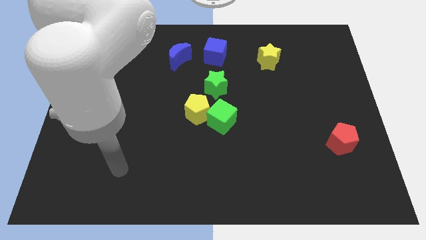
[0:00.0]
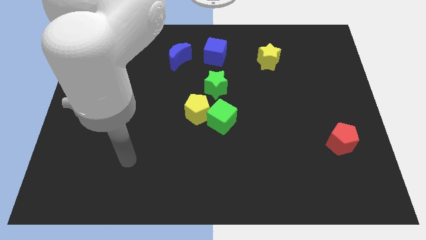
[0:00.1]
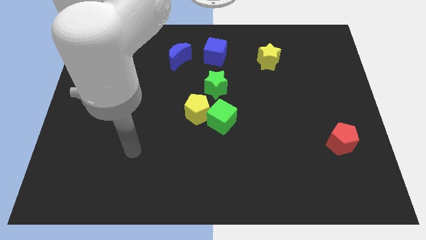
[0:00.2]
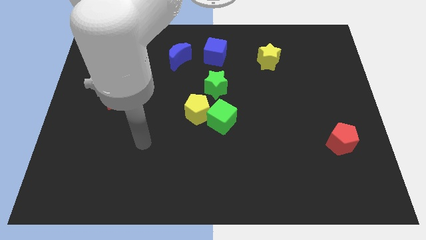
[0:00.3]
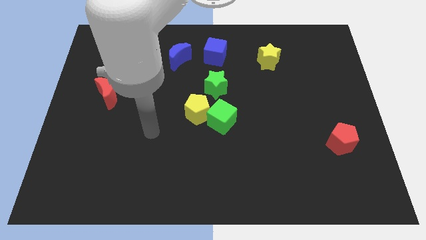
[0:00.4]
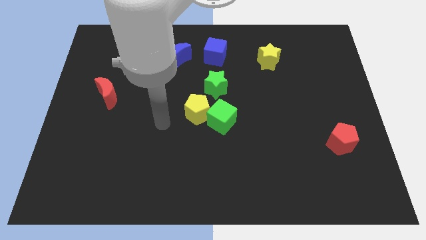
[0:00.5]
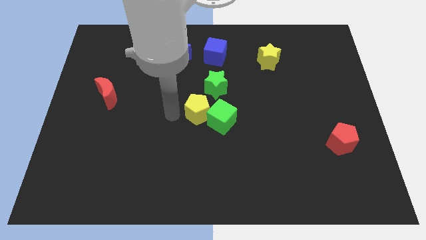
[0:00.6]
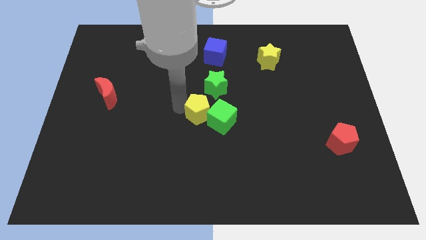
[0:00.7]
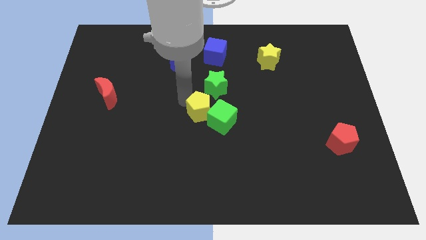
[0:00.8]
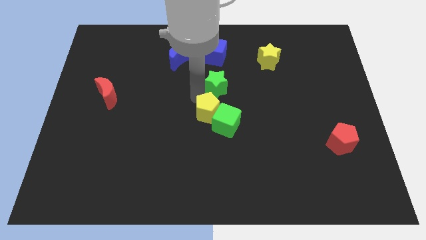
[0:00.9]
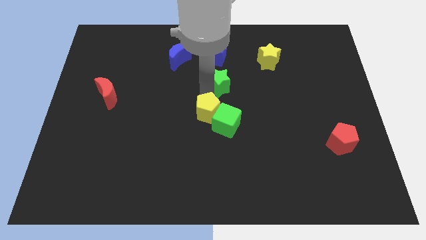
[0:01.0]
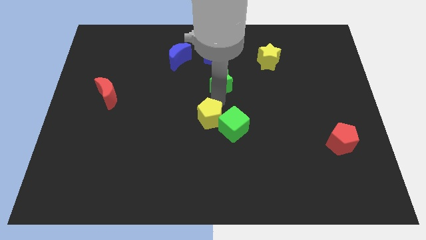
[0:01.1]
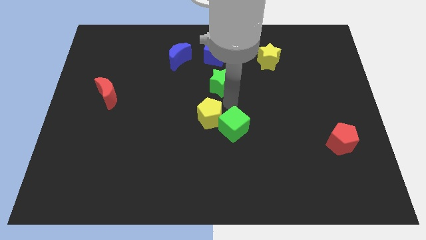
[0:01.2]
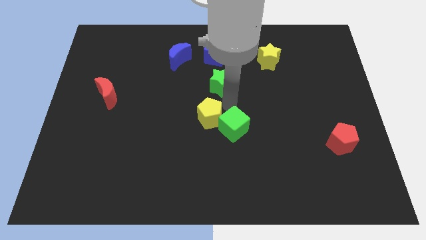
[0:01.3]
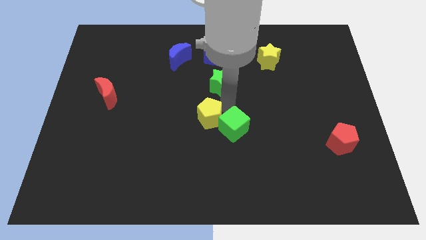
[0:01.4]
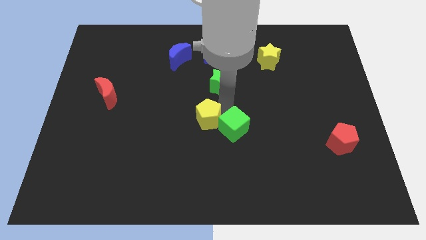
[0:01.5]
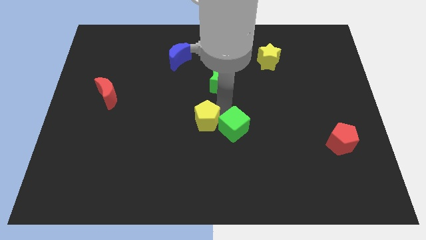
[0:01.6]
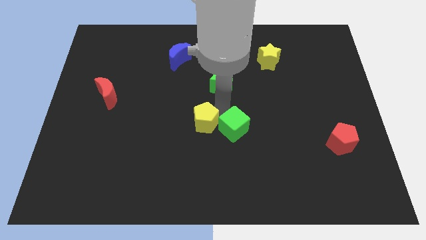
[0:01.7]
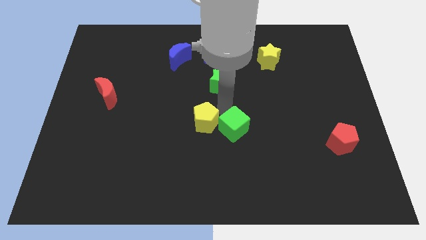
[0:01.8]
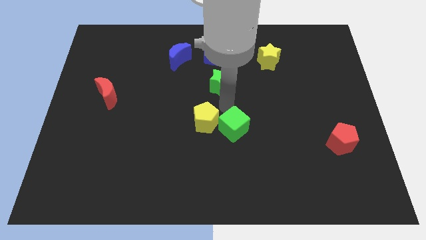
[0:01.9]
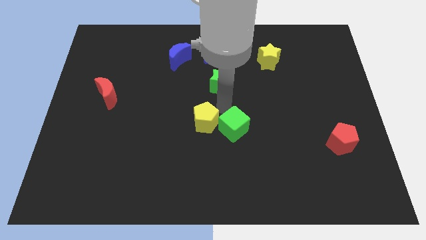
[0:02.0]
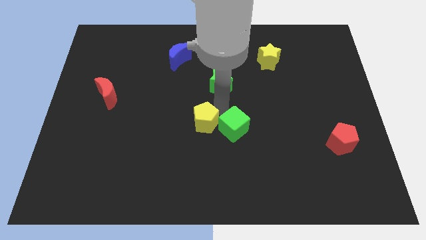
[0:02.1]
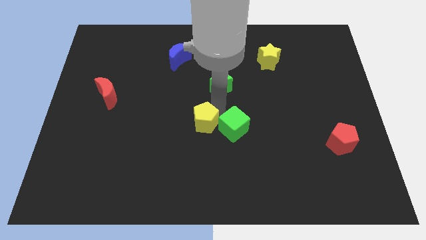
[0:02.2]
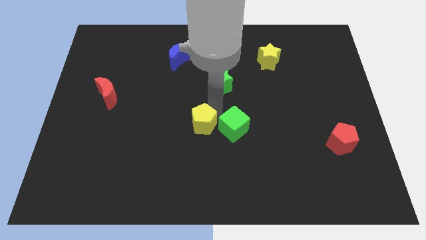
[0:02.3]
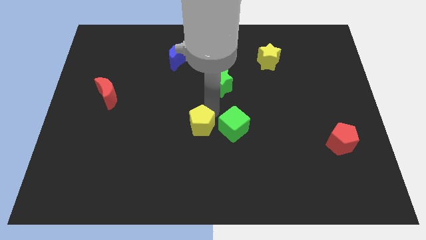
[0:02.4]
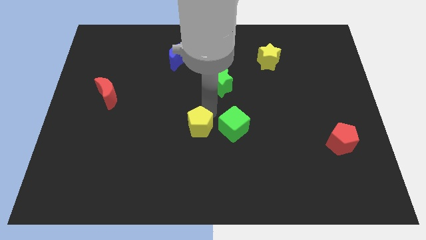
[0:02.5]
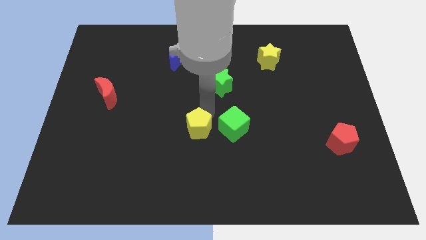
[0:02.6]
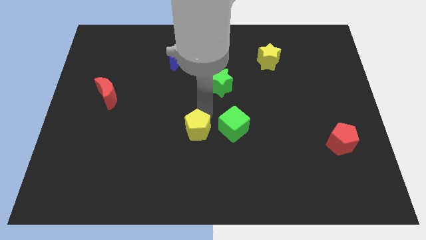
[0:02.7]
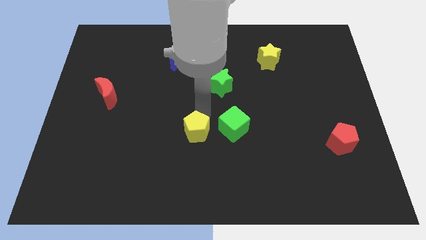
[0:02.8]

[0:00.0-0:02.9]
pull the yellow pentagon apart from the green cube and green star

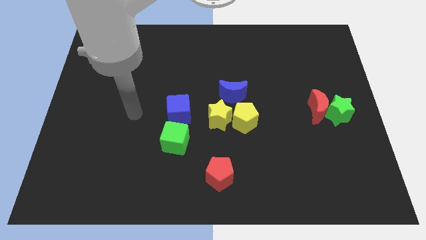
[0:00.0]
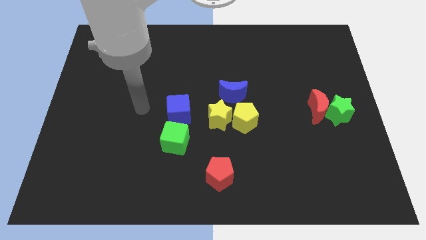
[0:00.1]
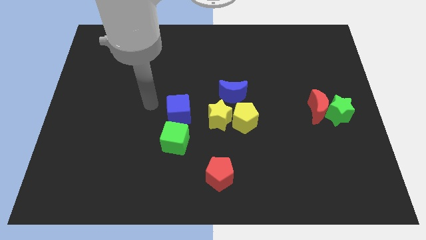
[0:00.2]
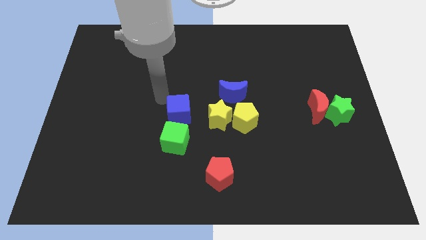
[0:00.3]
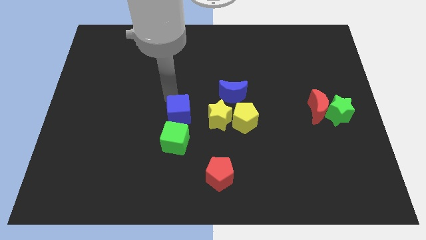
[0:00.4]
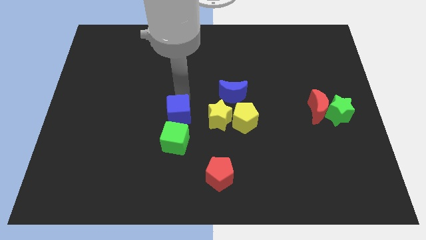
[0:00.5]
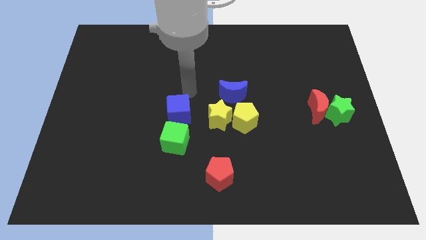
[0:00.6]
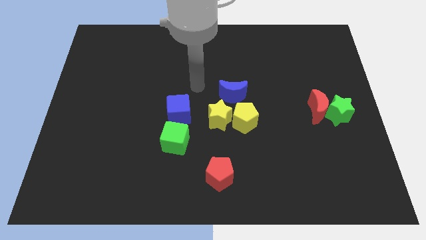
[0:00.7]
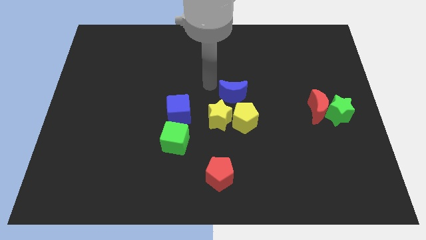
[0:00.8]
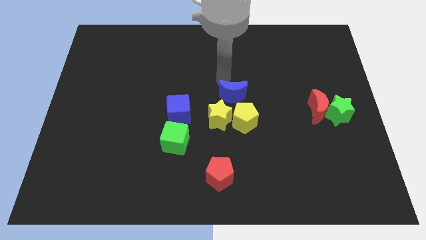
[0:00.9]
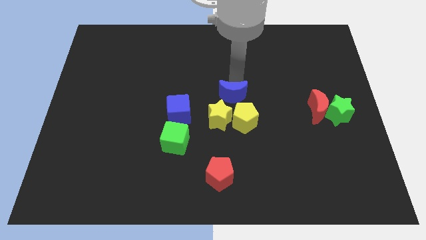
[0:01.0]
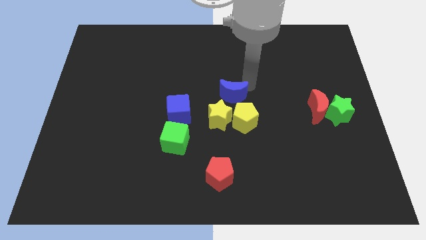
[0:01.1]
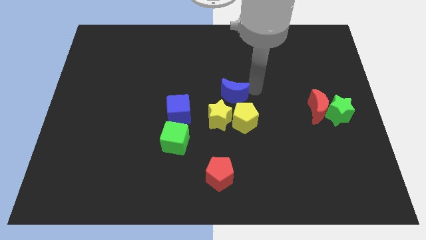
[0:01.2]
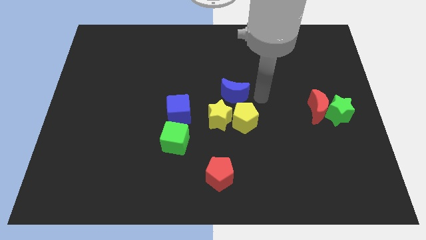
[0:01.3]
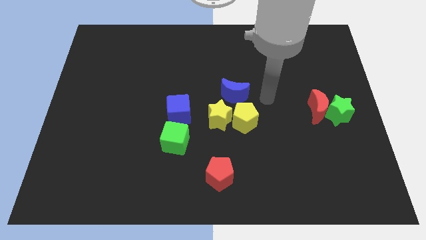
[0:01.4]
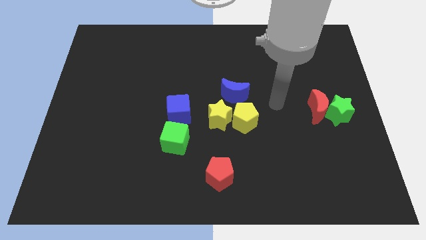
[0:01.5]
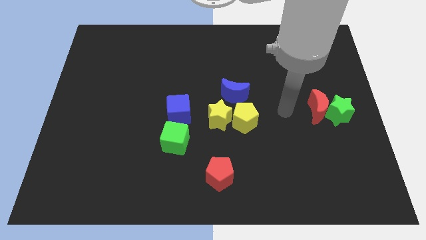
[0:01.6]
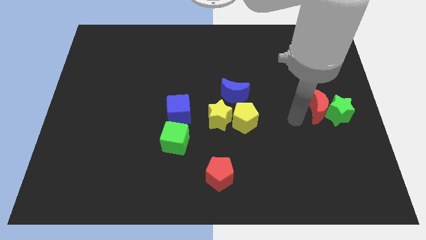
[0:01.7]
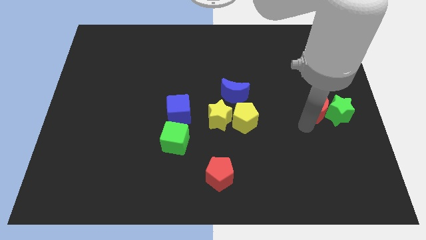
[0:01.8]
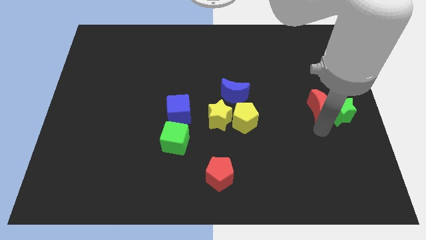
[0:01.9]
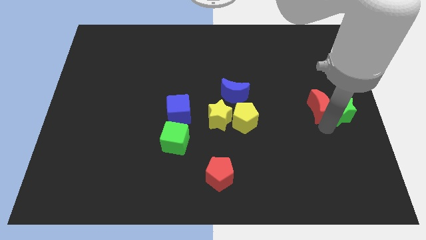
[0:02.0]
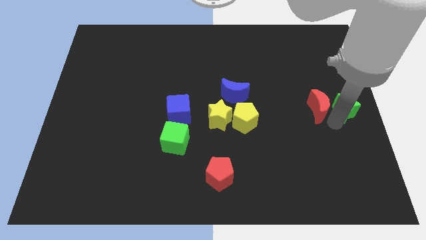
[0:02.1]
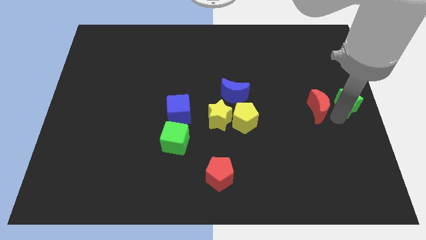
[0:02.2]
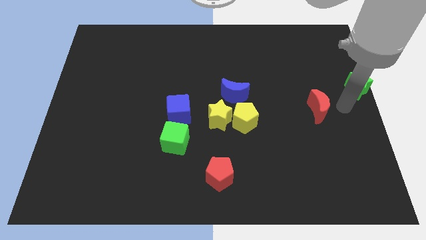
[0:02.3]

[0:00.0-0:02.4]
pull the red moon apart from the green star

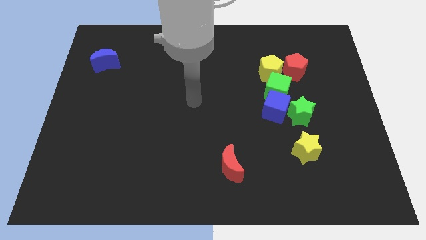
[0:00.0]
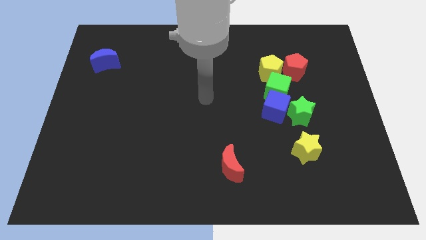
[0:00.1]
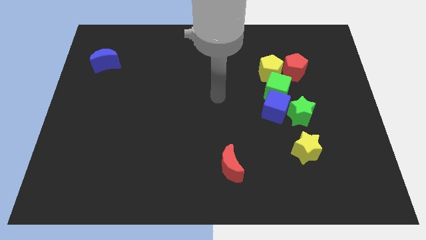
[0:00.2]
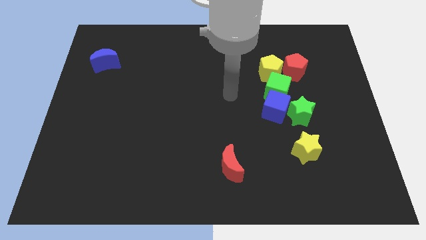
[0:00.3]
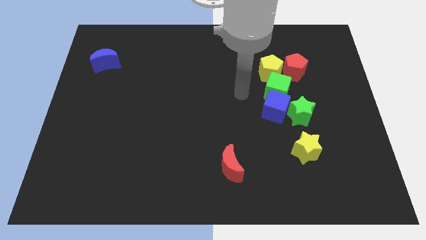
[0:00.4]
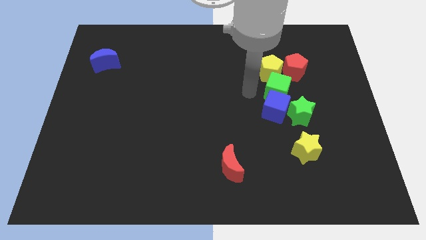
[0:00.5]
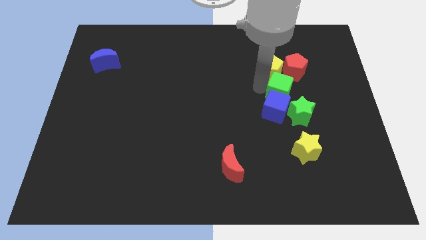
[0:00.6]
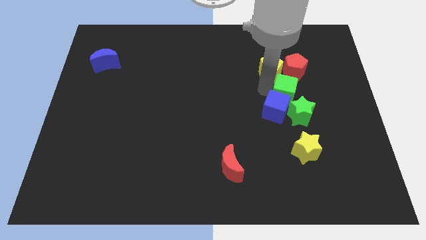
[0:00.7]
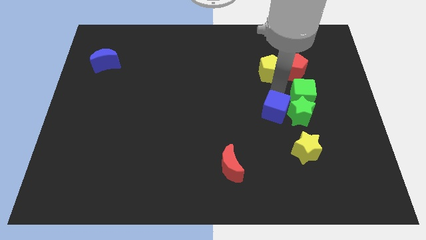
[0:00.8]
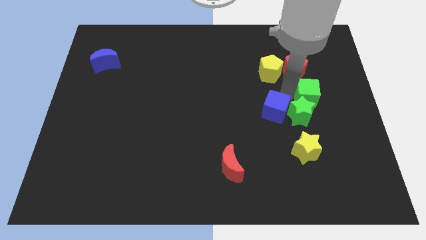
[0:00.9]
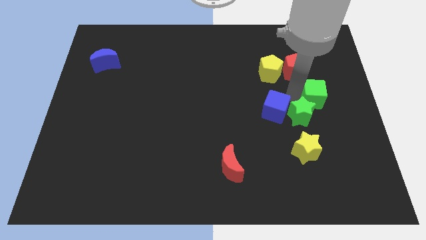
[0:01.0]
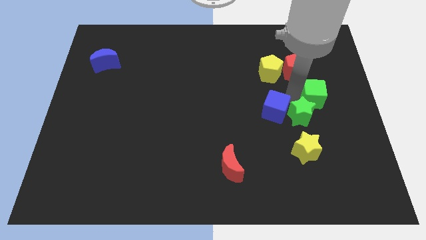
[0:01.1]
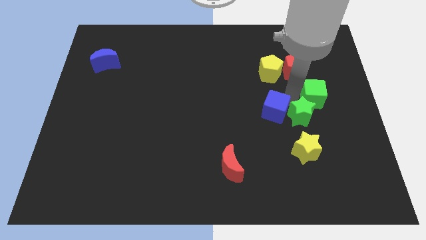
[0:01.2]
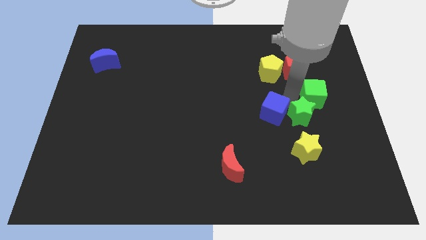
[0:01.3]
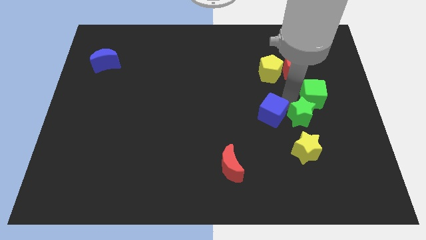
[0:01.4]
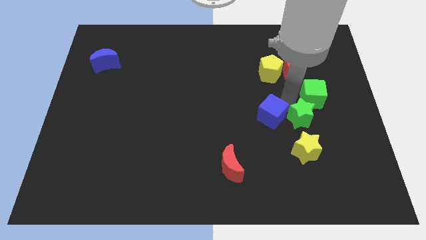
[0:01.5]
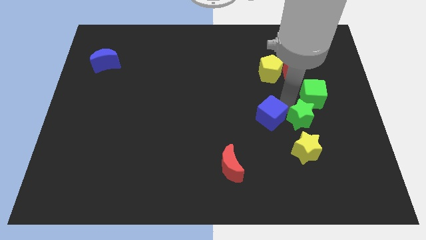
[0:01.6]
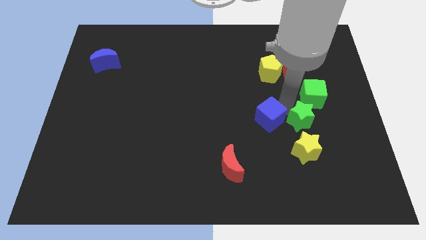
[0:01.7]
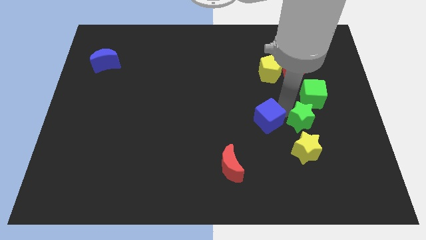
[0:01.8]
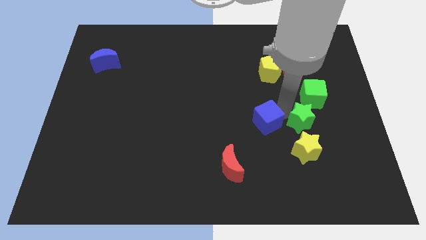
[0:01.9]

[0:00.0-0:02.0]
separate the blue cube from the green cube and green star

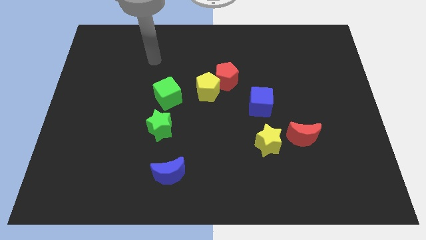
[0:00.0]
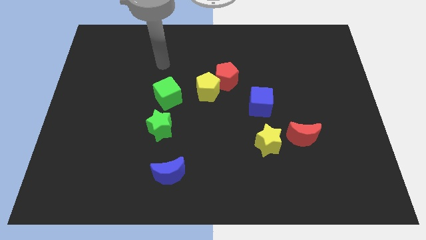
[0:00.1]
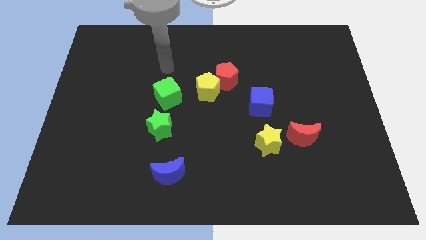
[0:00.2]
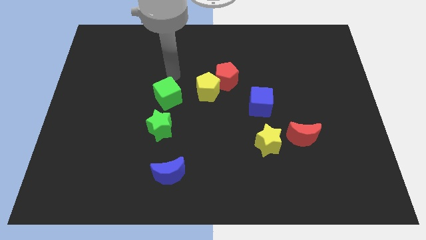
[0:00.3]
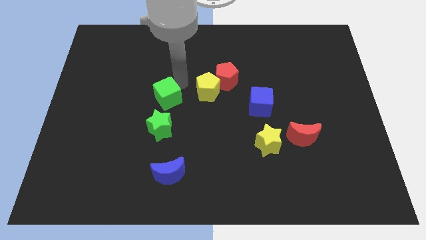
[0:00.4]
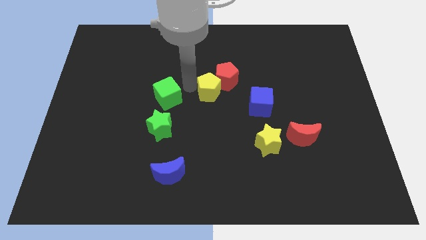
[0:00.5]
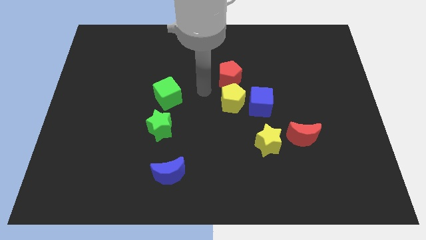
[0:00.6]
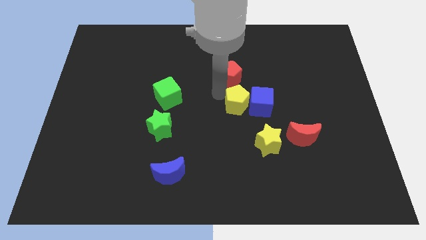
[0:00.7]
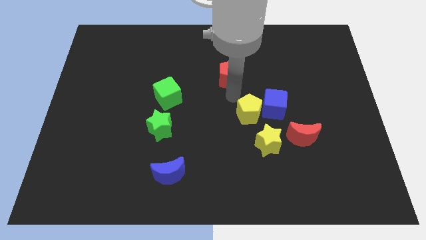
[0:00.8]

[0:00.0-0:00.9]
separate the red pentagon from the yellow pentagon

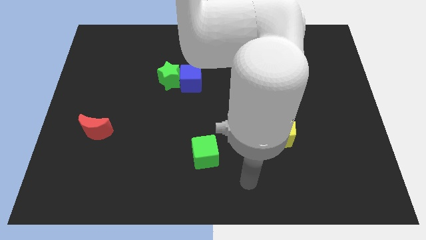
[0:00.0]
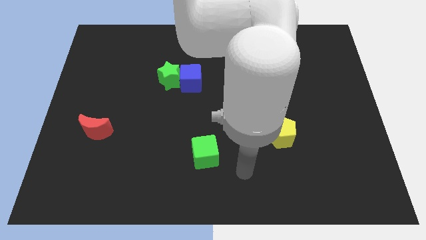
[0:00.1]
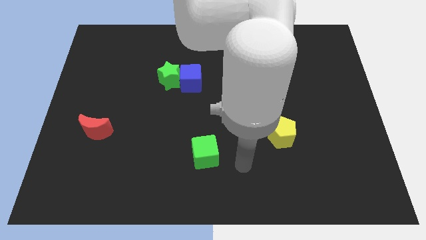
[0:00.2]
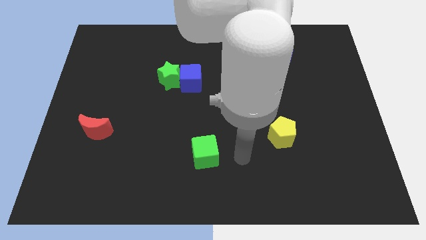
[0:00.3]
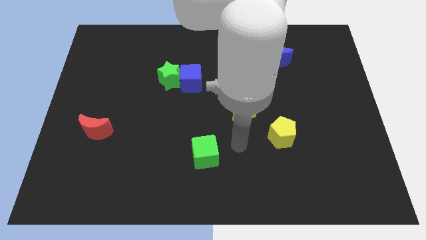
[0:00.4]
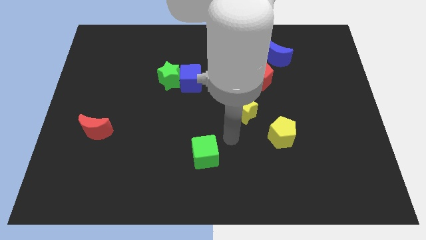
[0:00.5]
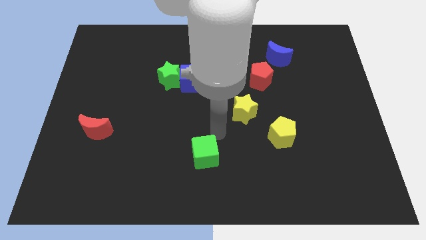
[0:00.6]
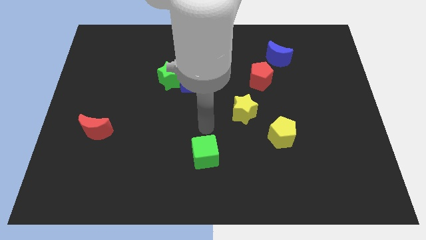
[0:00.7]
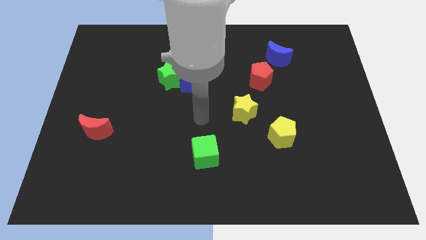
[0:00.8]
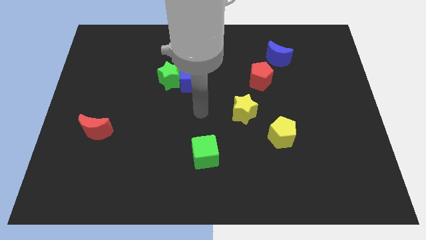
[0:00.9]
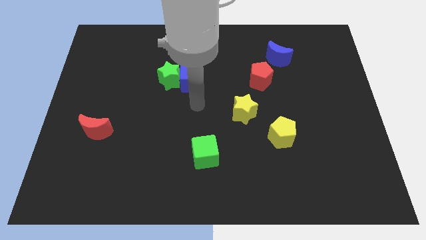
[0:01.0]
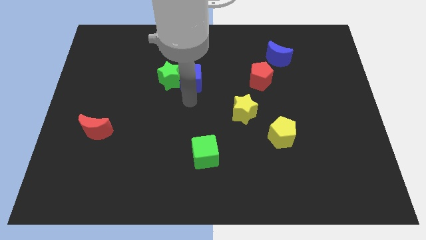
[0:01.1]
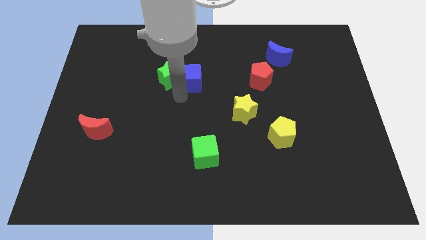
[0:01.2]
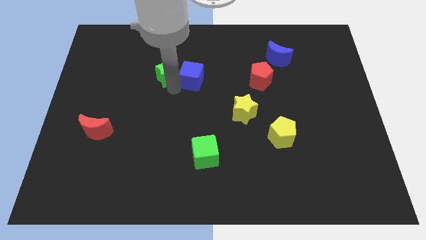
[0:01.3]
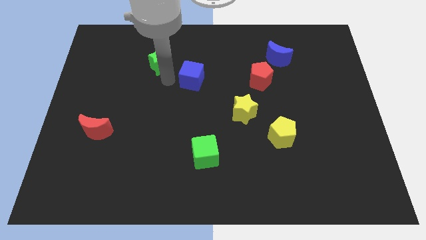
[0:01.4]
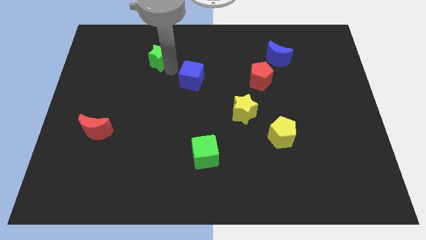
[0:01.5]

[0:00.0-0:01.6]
pull the blue cube apart from the green star
